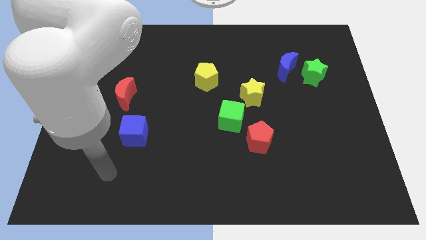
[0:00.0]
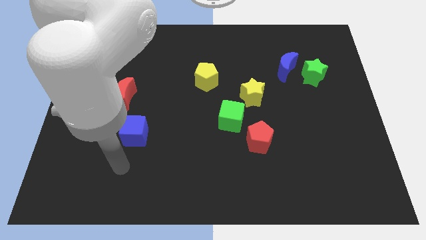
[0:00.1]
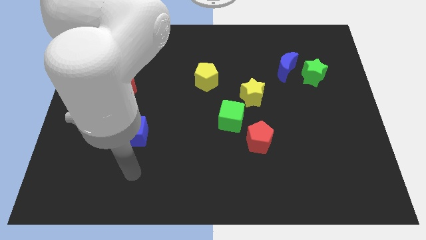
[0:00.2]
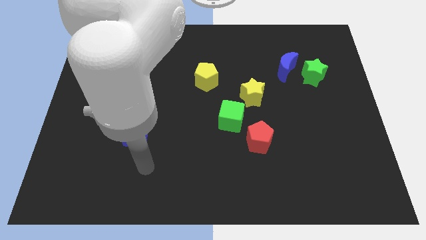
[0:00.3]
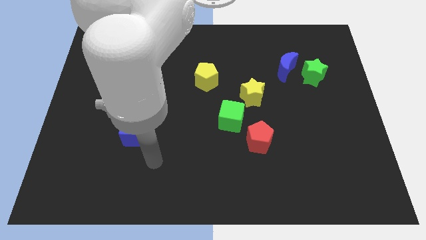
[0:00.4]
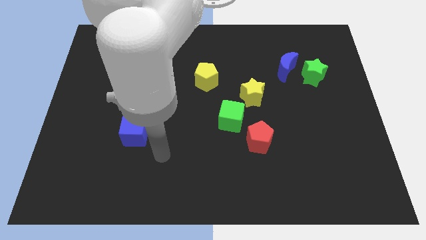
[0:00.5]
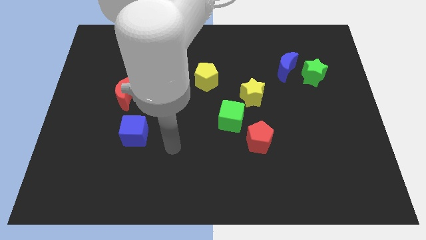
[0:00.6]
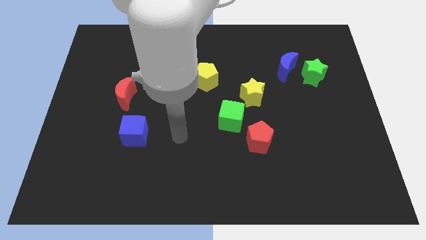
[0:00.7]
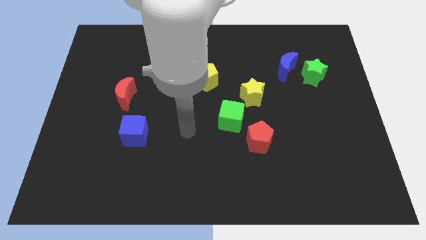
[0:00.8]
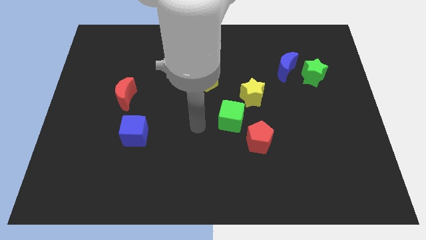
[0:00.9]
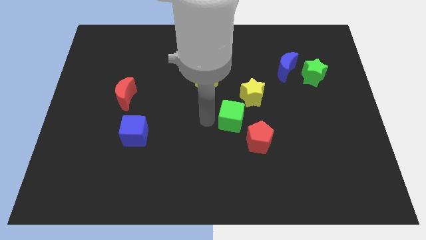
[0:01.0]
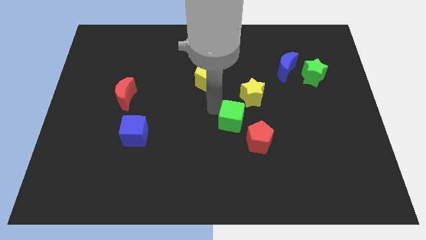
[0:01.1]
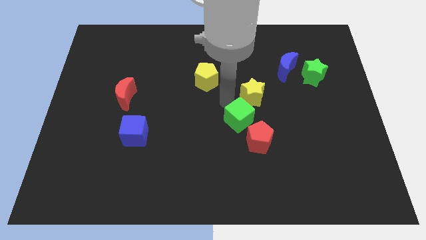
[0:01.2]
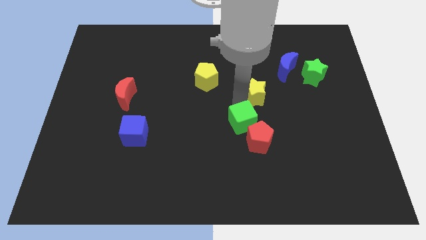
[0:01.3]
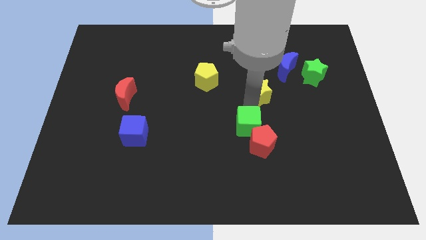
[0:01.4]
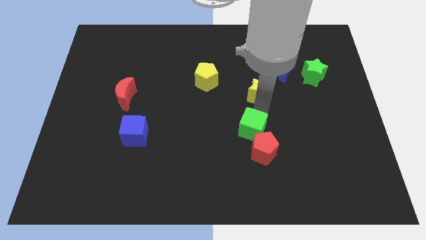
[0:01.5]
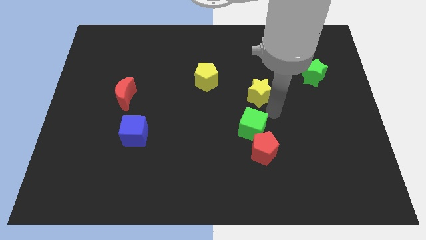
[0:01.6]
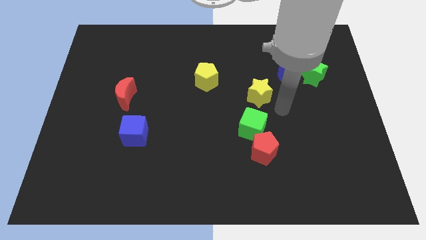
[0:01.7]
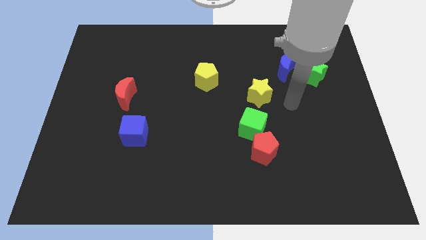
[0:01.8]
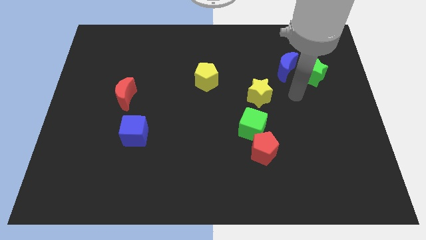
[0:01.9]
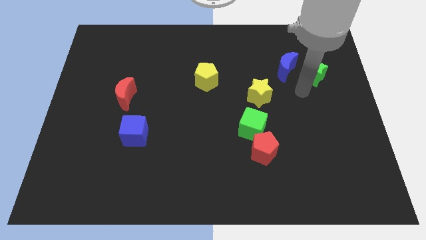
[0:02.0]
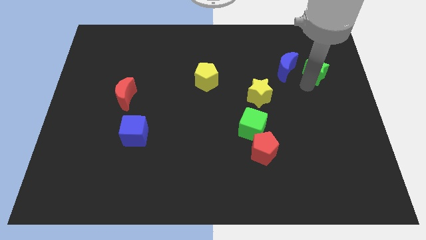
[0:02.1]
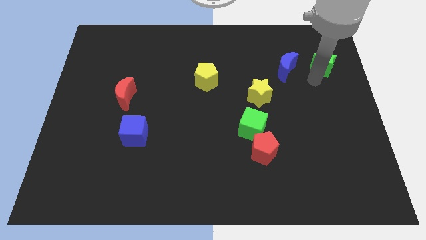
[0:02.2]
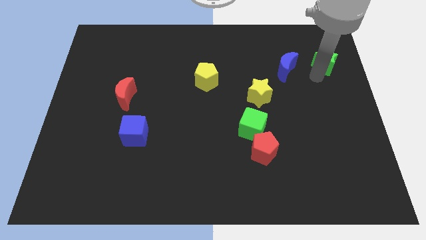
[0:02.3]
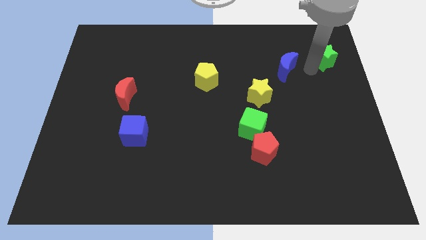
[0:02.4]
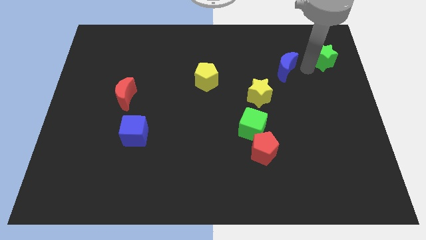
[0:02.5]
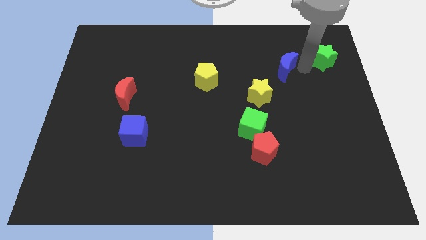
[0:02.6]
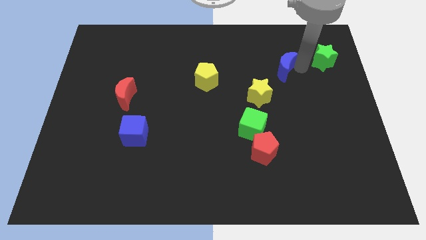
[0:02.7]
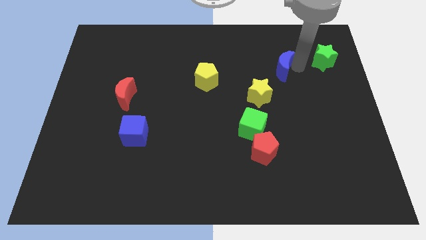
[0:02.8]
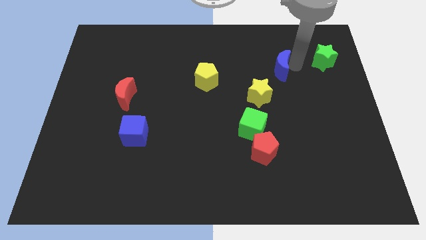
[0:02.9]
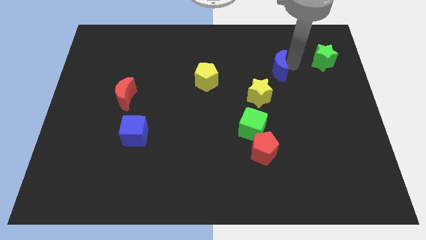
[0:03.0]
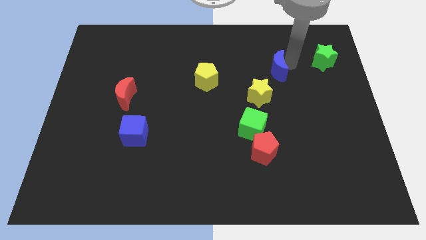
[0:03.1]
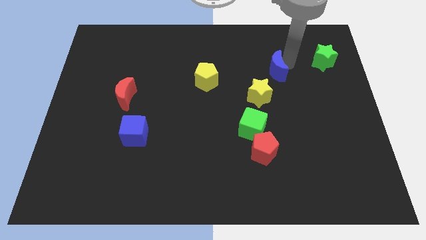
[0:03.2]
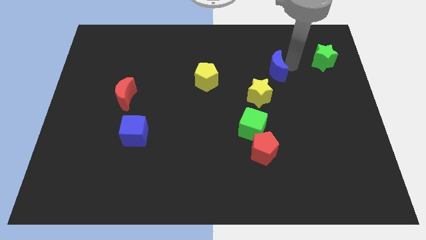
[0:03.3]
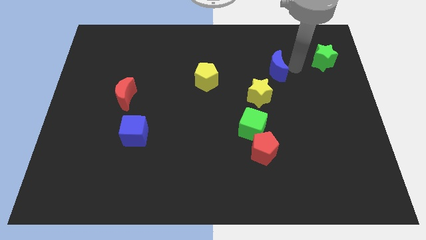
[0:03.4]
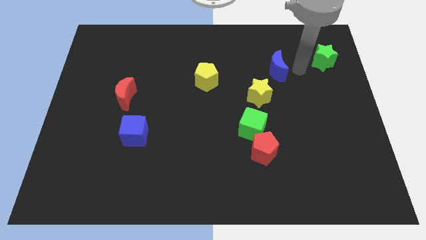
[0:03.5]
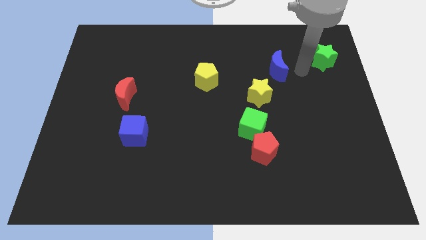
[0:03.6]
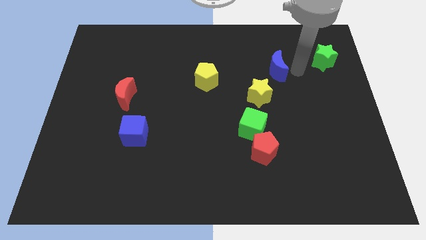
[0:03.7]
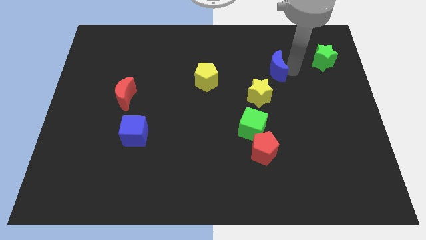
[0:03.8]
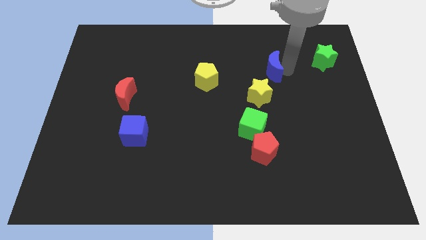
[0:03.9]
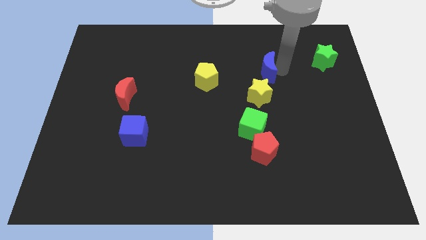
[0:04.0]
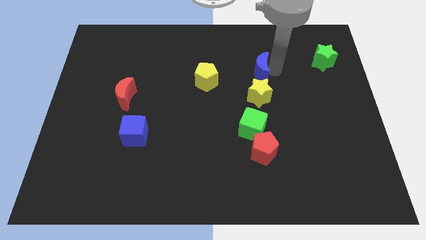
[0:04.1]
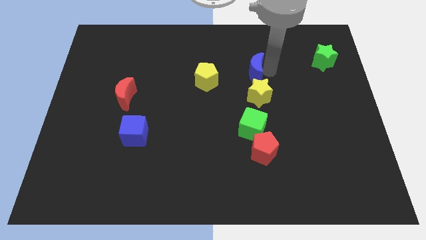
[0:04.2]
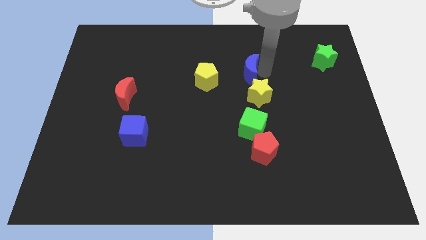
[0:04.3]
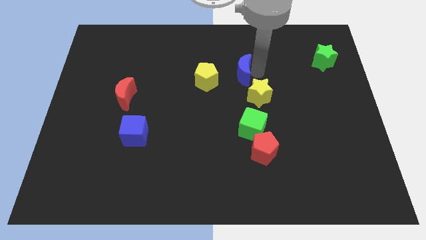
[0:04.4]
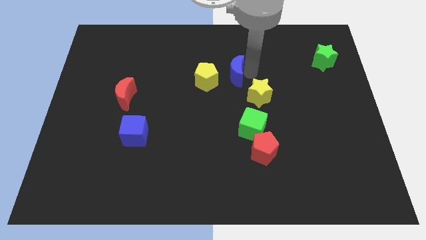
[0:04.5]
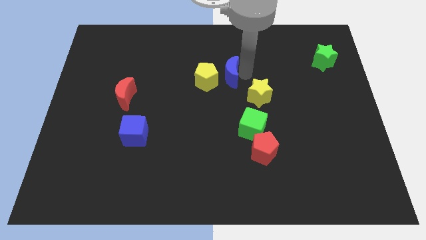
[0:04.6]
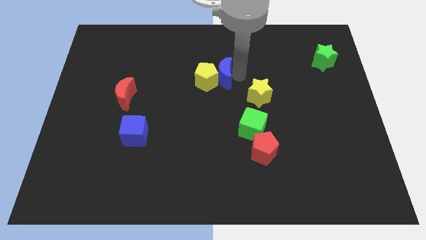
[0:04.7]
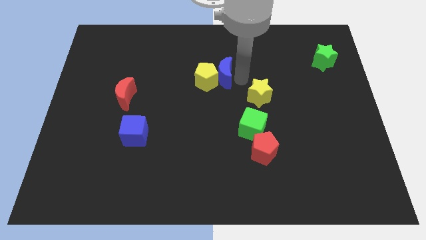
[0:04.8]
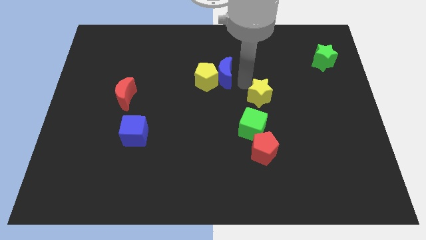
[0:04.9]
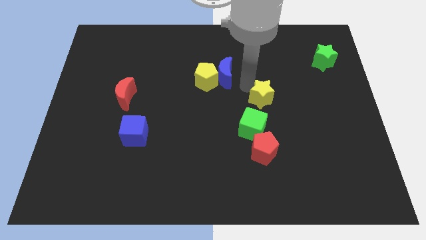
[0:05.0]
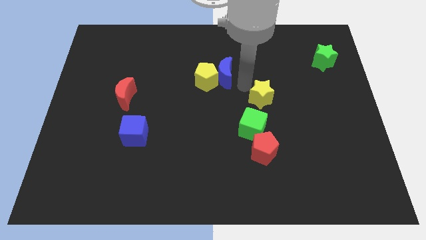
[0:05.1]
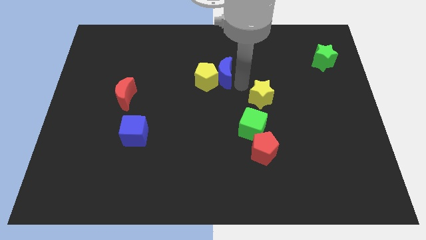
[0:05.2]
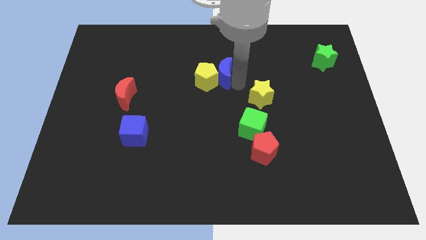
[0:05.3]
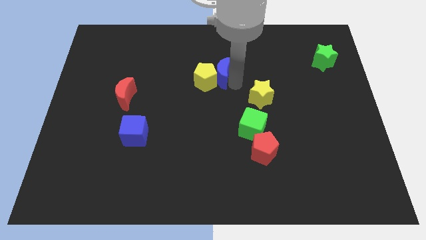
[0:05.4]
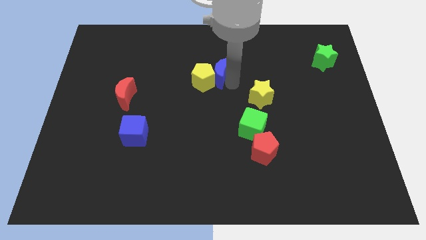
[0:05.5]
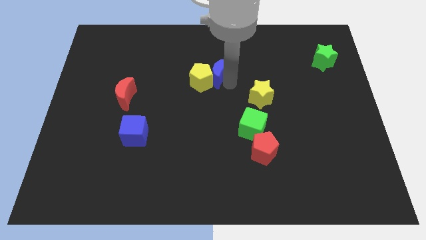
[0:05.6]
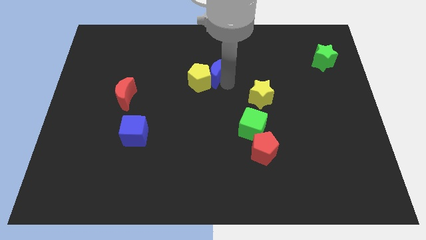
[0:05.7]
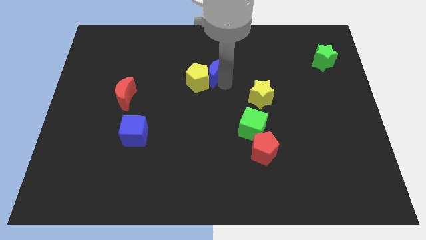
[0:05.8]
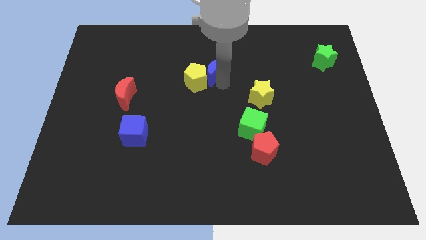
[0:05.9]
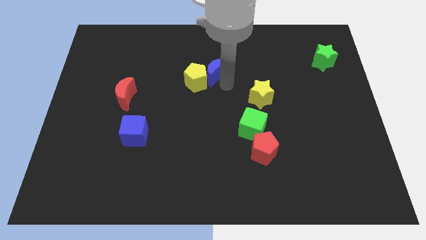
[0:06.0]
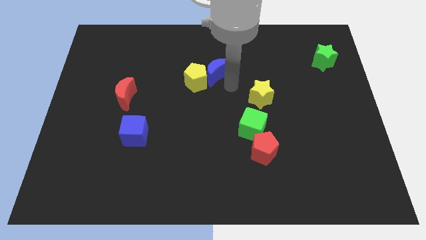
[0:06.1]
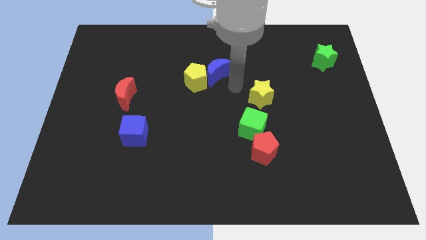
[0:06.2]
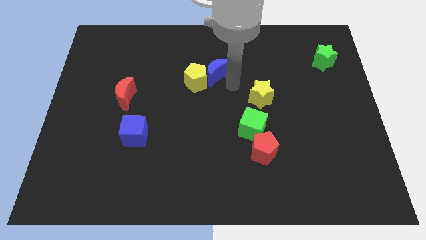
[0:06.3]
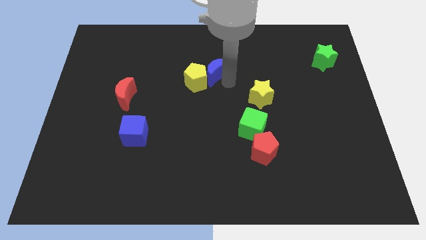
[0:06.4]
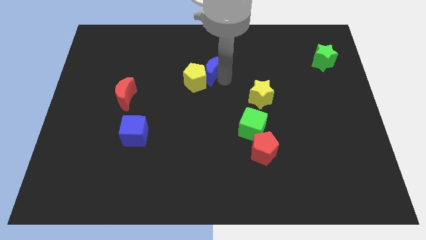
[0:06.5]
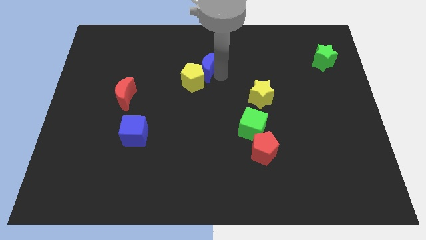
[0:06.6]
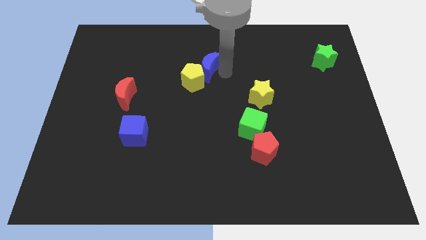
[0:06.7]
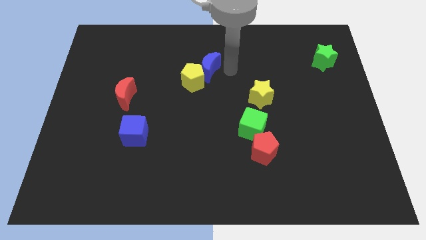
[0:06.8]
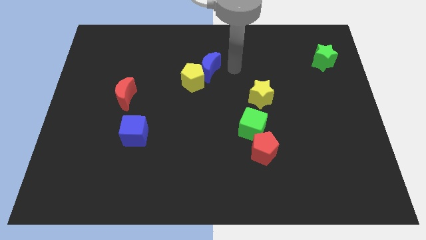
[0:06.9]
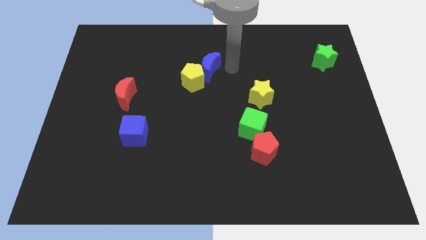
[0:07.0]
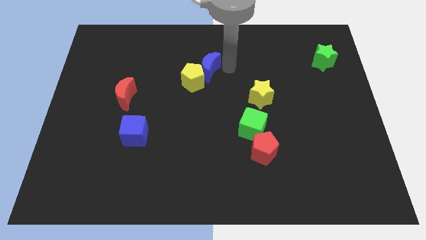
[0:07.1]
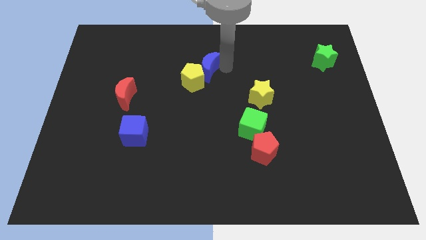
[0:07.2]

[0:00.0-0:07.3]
move the blue moon to the left

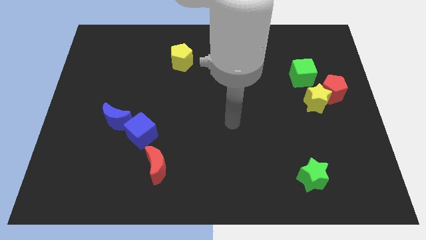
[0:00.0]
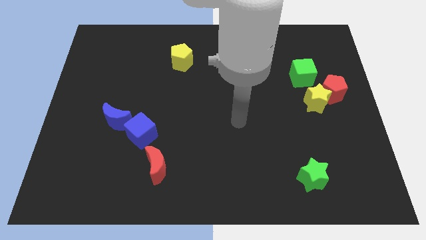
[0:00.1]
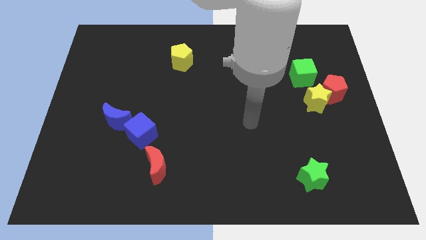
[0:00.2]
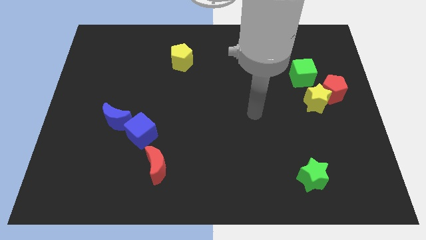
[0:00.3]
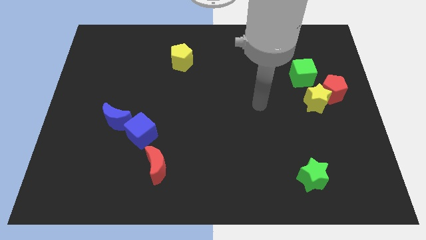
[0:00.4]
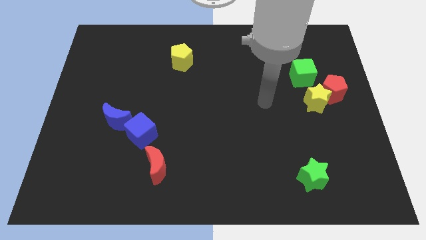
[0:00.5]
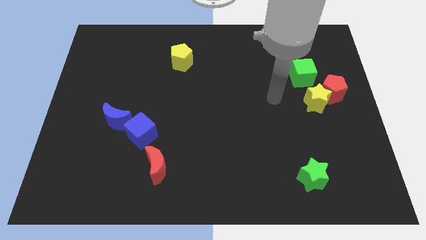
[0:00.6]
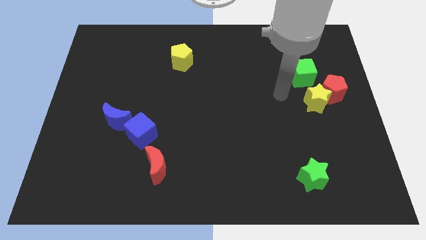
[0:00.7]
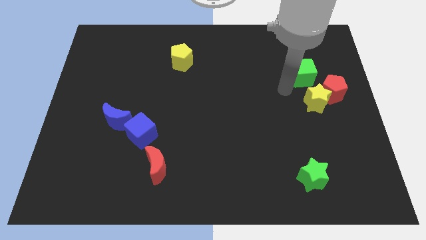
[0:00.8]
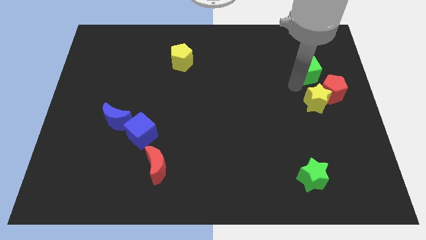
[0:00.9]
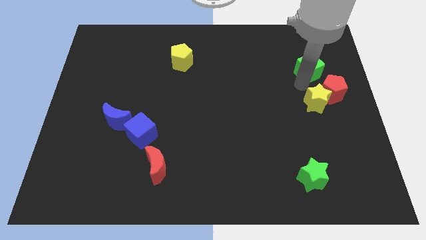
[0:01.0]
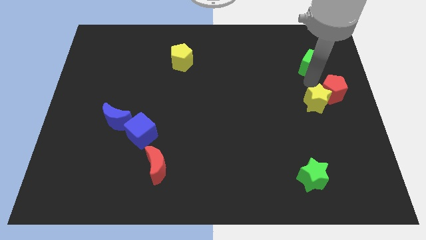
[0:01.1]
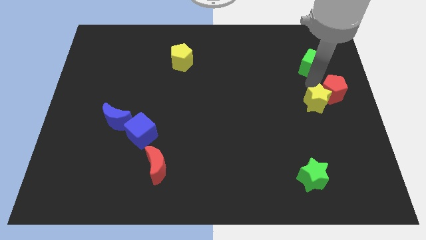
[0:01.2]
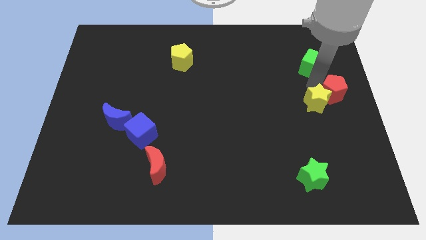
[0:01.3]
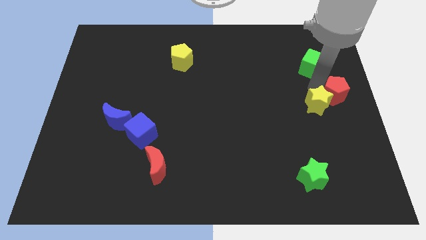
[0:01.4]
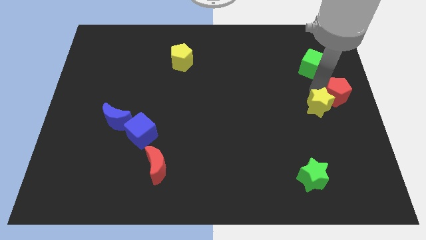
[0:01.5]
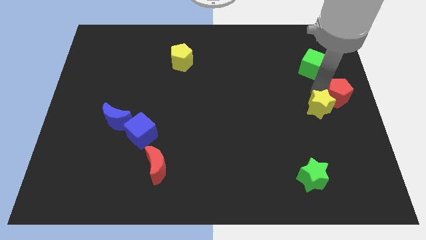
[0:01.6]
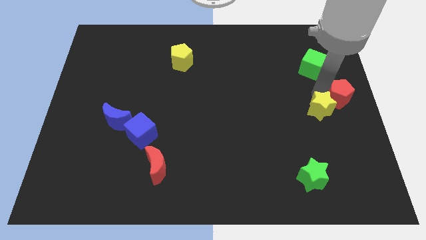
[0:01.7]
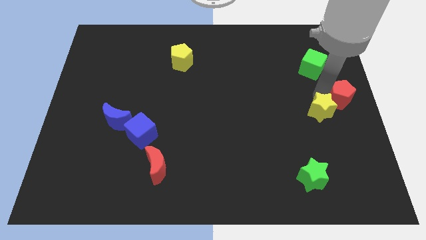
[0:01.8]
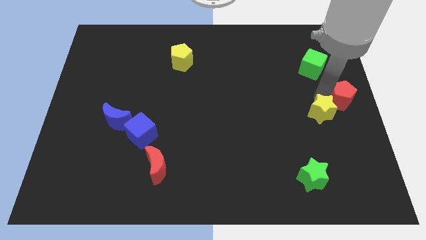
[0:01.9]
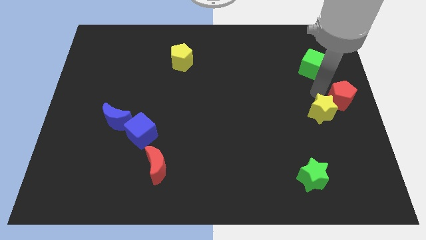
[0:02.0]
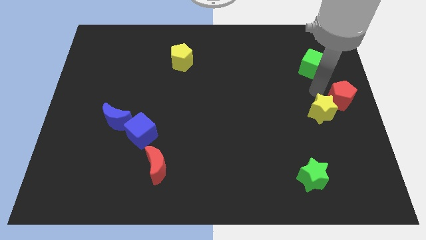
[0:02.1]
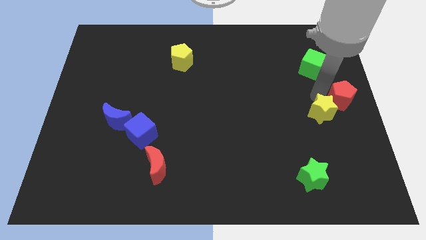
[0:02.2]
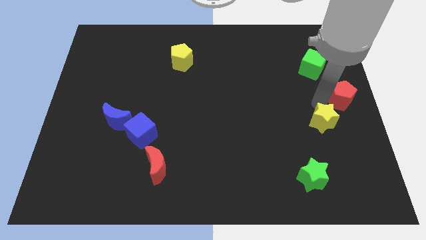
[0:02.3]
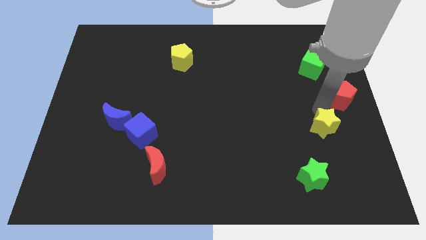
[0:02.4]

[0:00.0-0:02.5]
slide the yellow star downwards a bit
